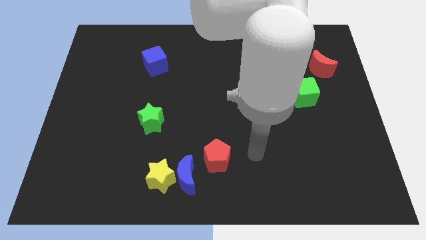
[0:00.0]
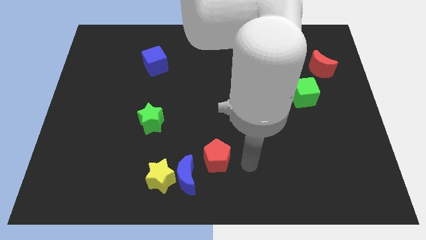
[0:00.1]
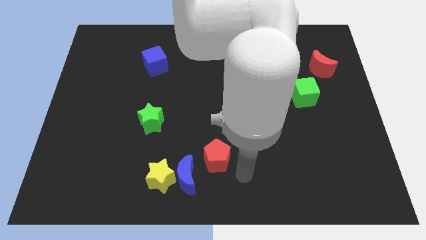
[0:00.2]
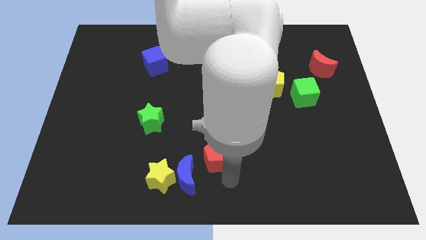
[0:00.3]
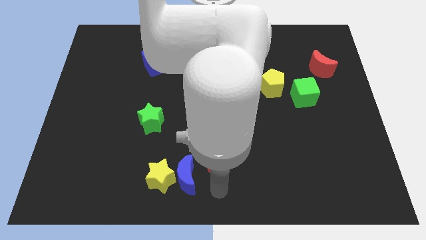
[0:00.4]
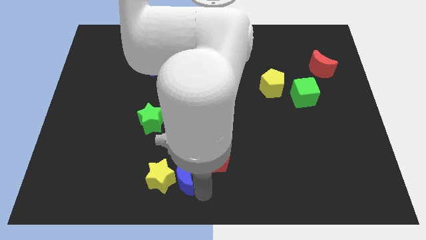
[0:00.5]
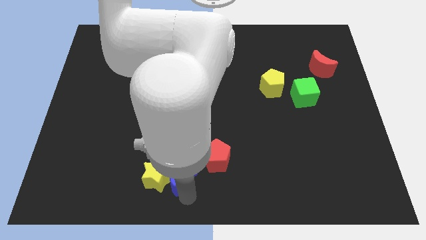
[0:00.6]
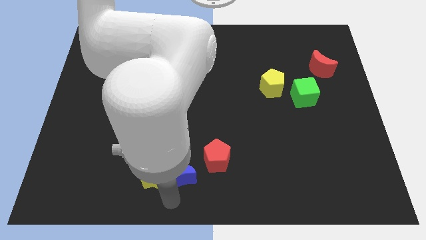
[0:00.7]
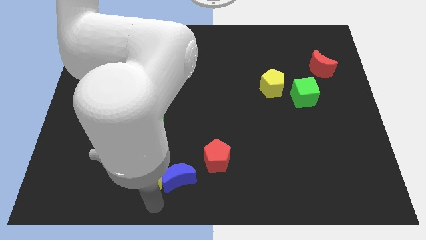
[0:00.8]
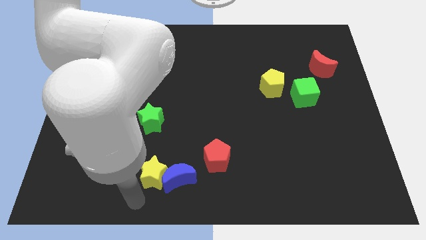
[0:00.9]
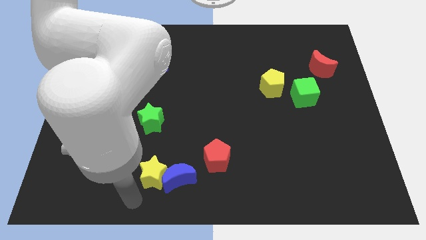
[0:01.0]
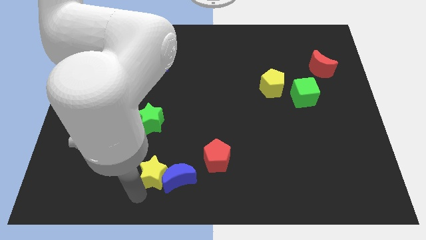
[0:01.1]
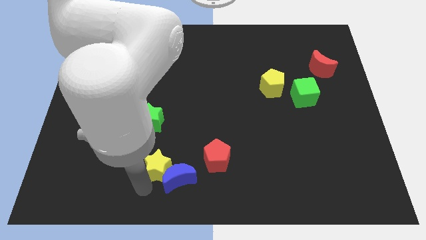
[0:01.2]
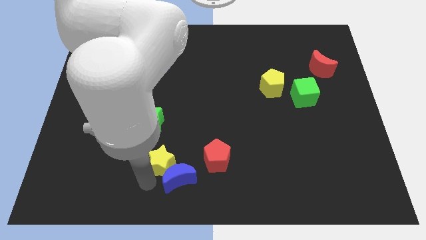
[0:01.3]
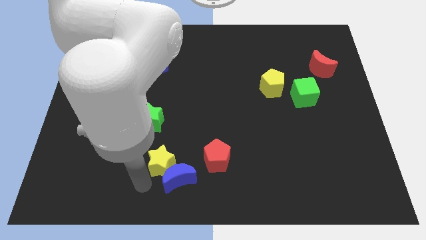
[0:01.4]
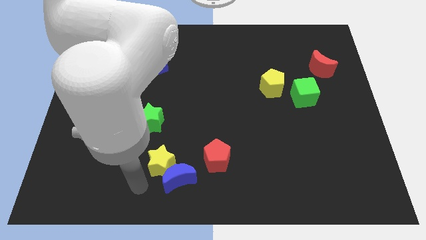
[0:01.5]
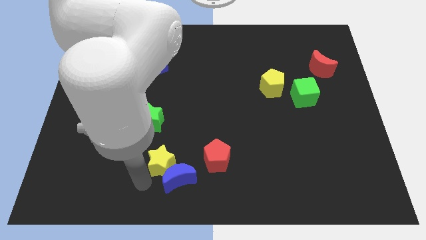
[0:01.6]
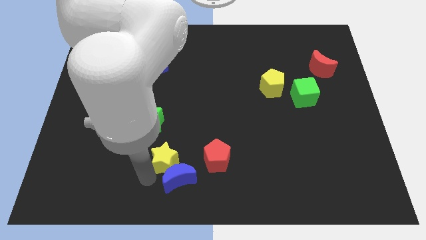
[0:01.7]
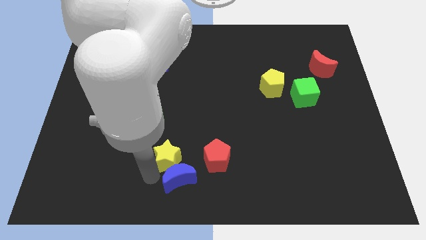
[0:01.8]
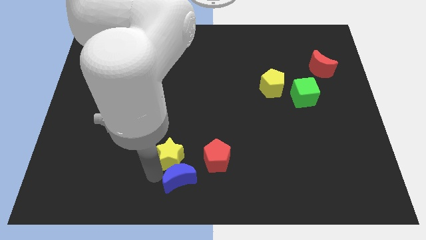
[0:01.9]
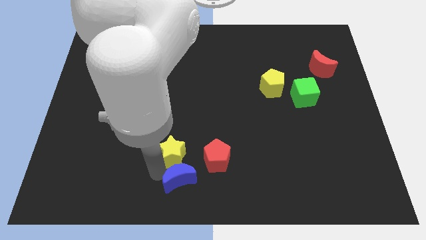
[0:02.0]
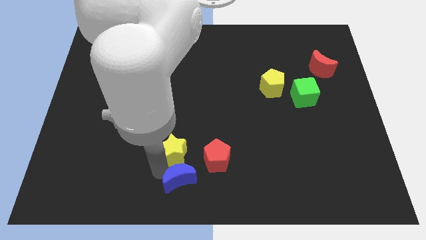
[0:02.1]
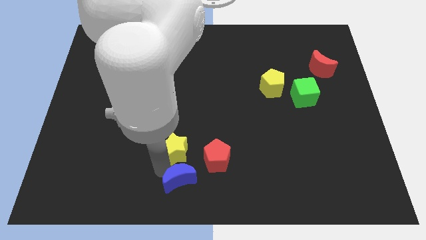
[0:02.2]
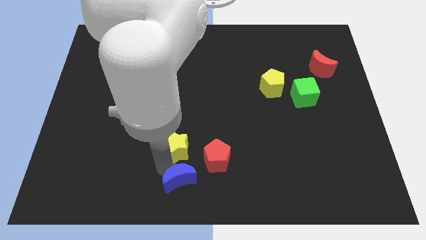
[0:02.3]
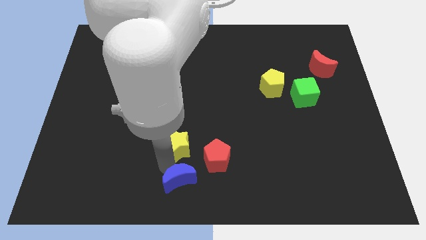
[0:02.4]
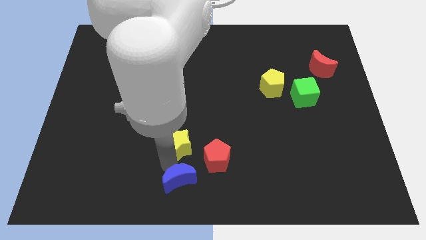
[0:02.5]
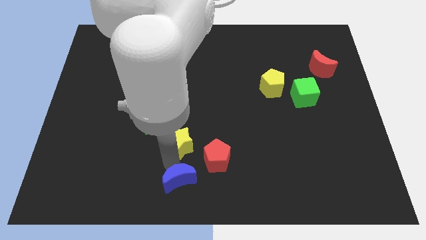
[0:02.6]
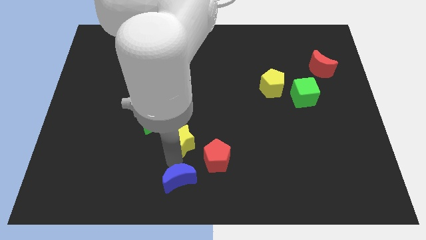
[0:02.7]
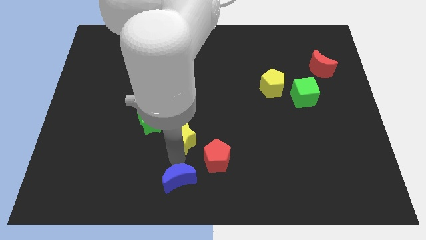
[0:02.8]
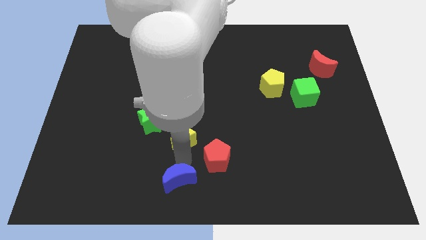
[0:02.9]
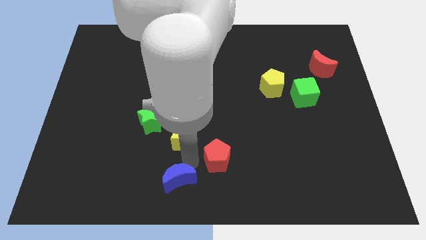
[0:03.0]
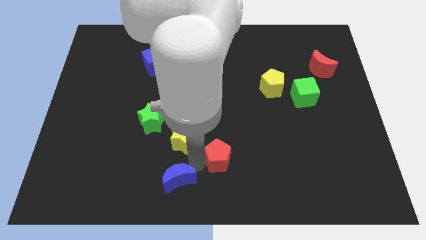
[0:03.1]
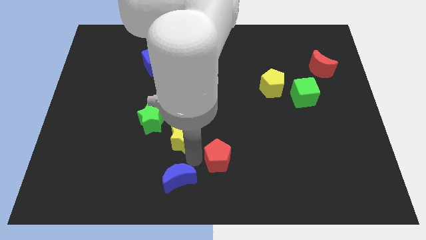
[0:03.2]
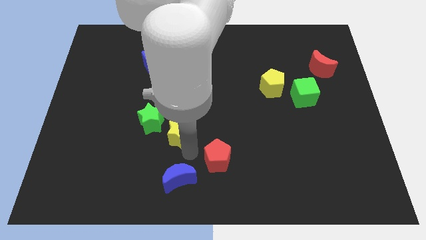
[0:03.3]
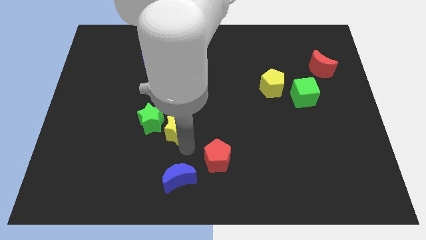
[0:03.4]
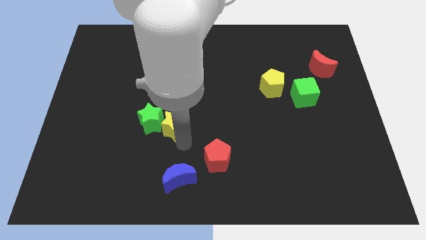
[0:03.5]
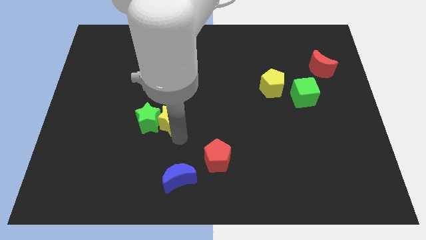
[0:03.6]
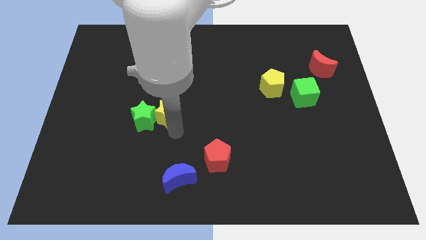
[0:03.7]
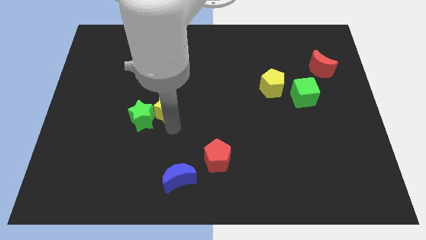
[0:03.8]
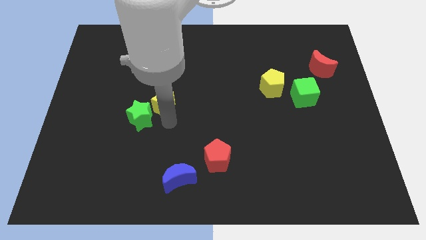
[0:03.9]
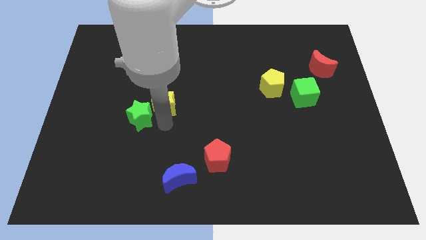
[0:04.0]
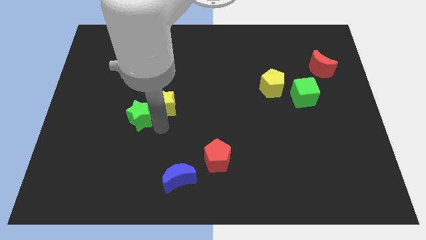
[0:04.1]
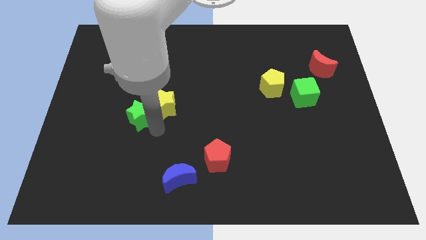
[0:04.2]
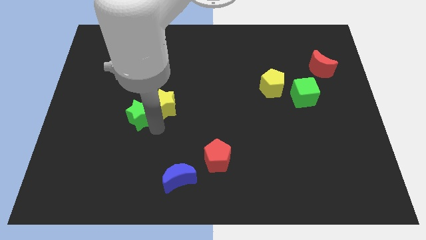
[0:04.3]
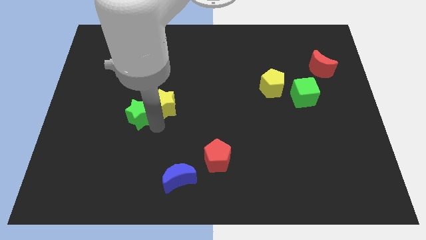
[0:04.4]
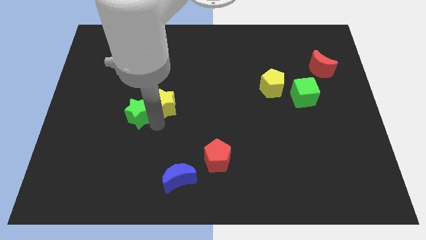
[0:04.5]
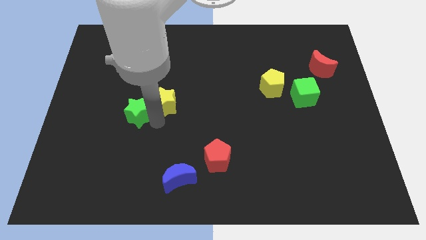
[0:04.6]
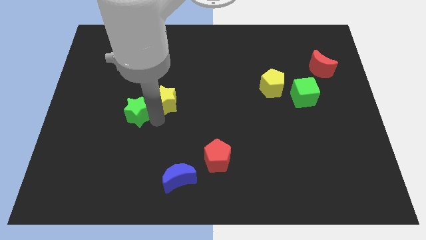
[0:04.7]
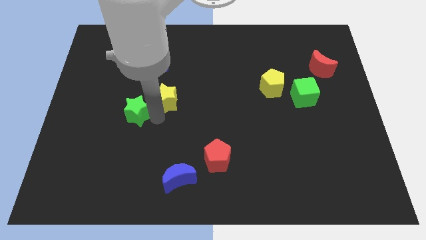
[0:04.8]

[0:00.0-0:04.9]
move the yellow star up

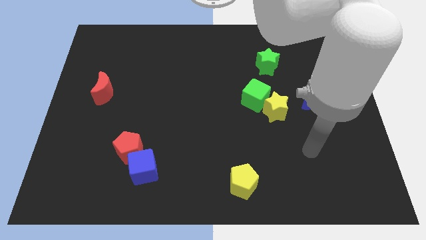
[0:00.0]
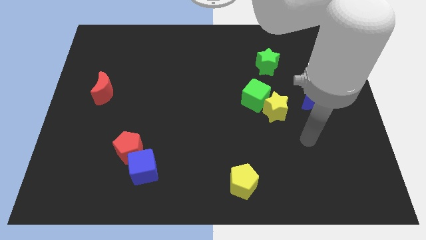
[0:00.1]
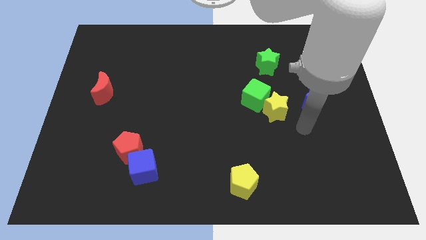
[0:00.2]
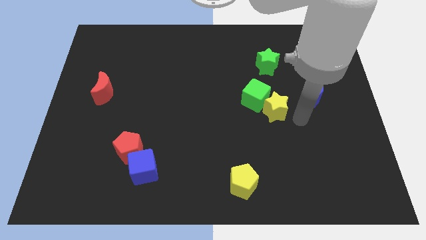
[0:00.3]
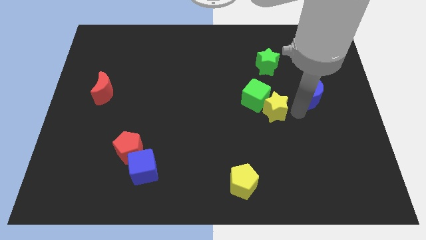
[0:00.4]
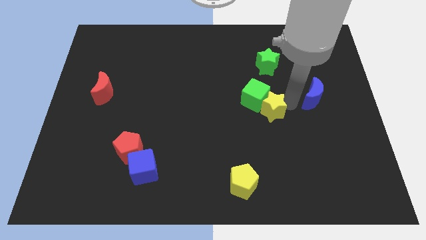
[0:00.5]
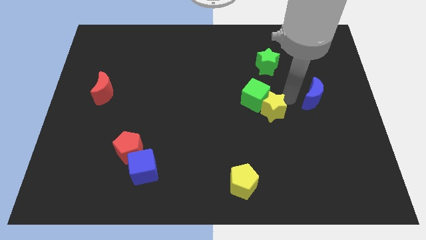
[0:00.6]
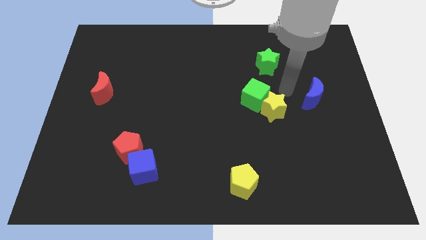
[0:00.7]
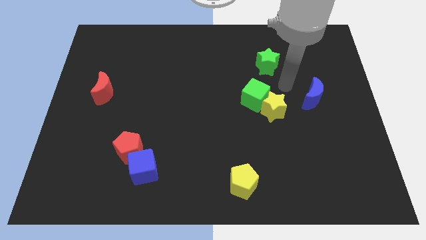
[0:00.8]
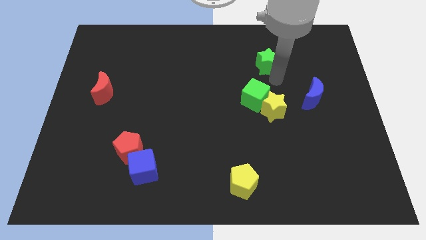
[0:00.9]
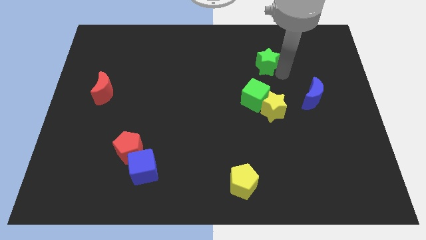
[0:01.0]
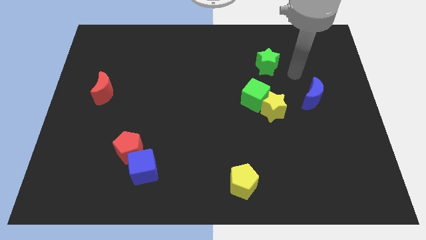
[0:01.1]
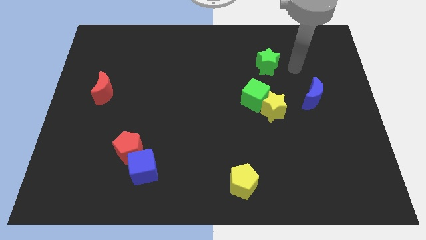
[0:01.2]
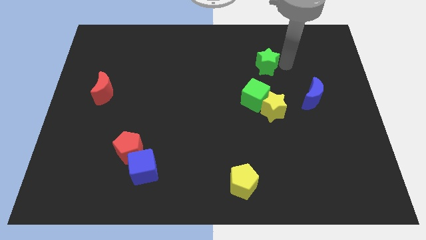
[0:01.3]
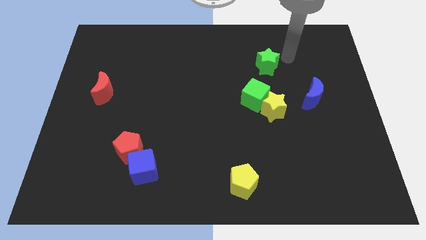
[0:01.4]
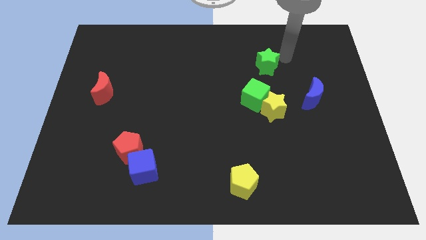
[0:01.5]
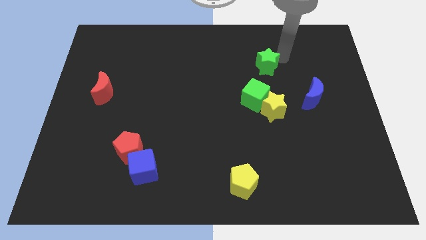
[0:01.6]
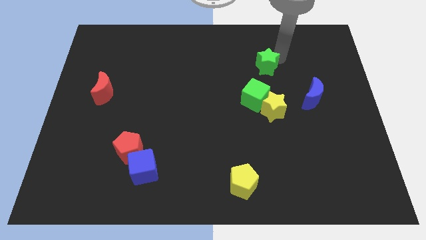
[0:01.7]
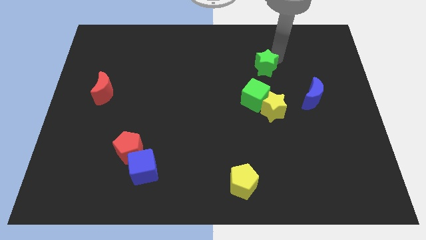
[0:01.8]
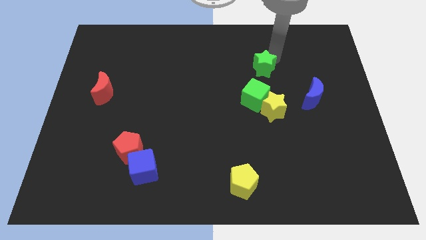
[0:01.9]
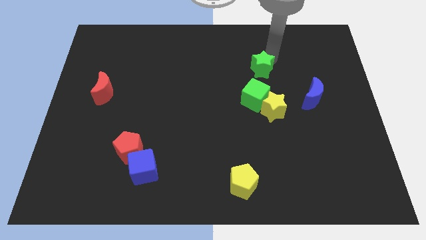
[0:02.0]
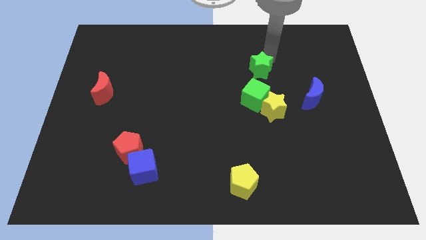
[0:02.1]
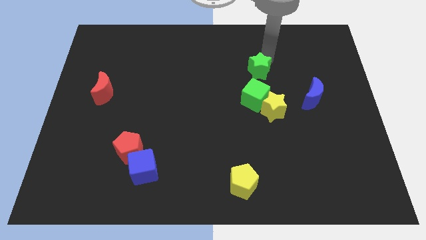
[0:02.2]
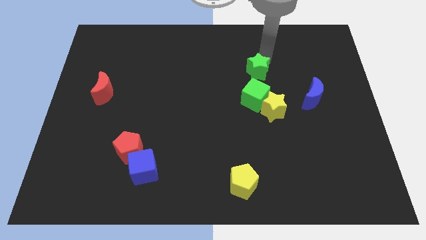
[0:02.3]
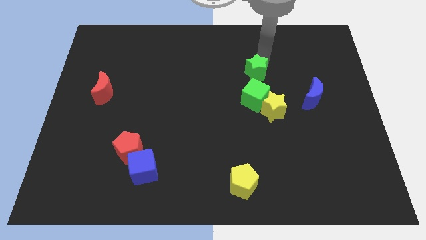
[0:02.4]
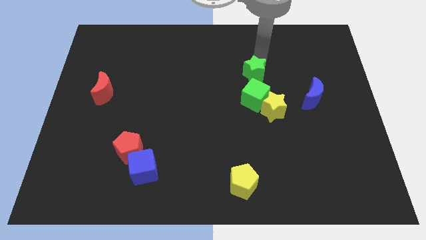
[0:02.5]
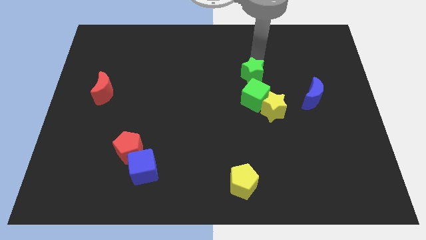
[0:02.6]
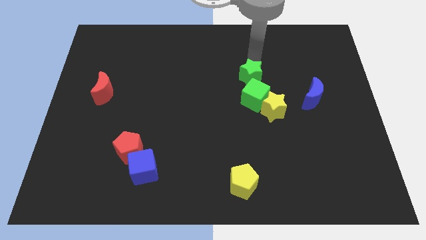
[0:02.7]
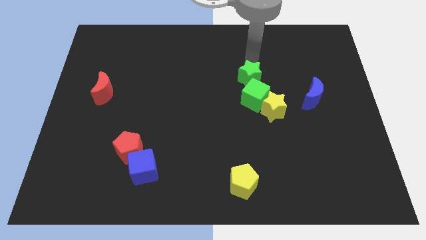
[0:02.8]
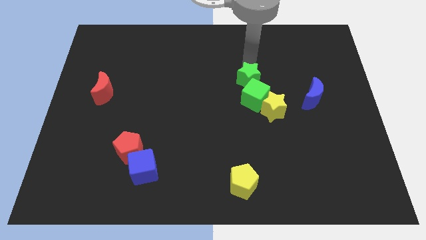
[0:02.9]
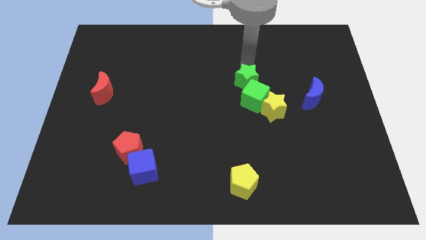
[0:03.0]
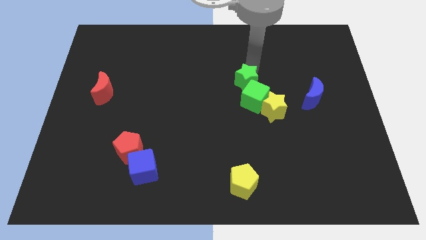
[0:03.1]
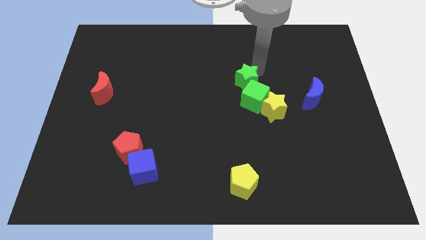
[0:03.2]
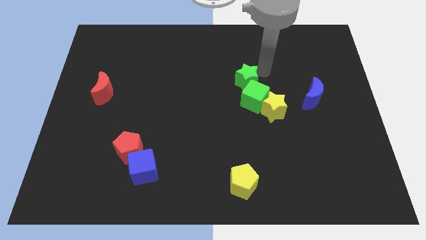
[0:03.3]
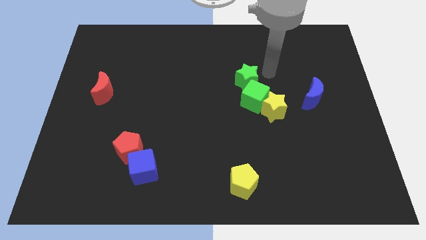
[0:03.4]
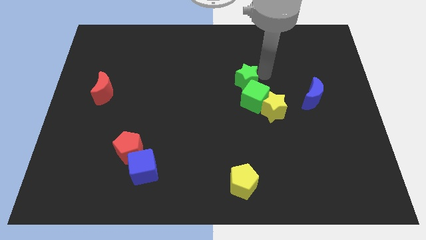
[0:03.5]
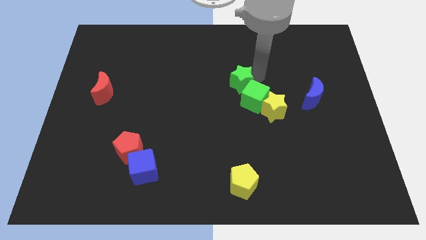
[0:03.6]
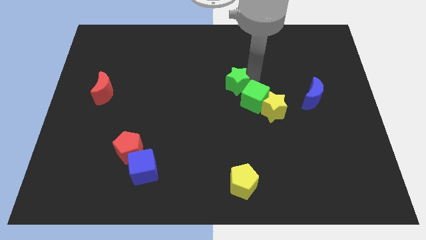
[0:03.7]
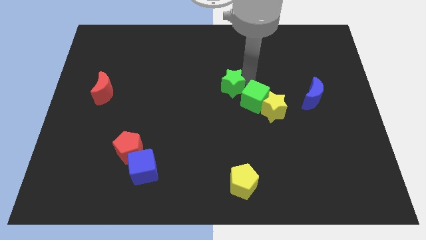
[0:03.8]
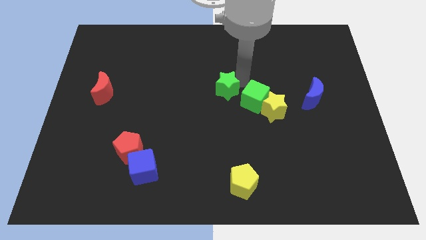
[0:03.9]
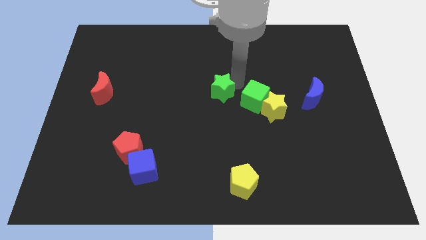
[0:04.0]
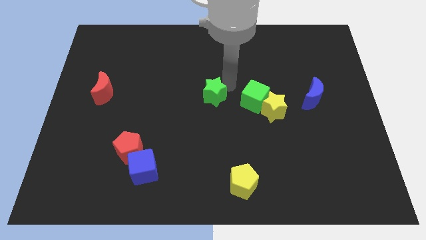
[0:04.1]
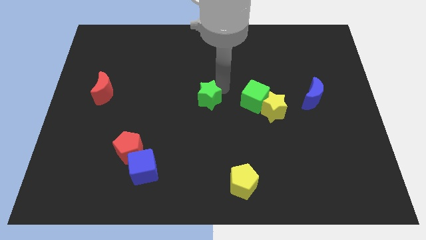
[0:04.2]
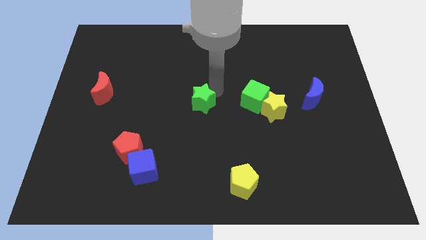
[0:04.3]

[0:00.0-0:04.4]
slide the green star downwards and to the left
